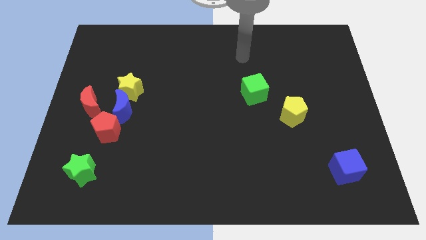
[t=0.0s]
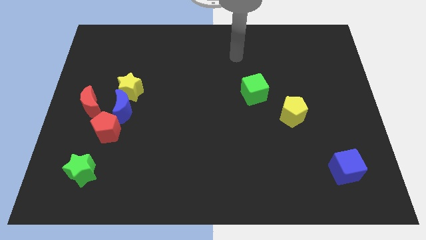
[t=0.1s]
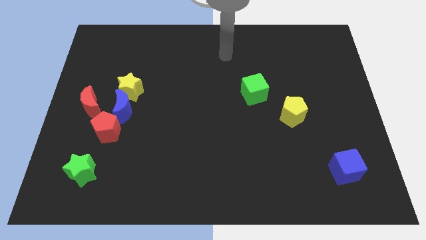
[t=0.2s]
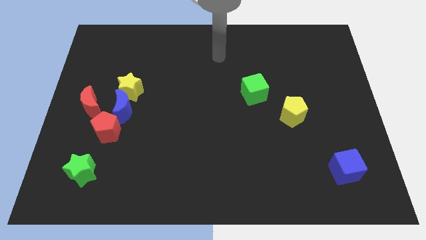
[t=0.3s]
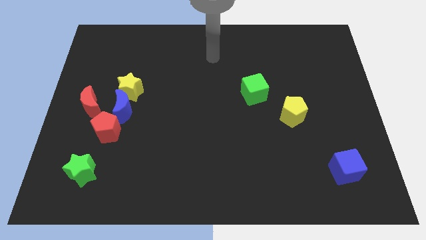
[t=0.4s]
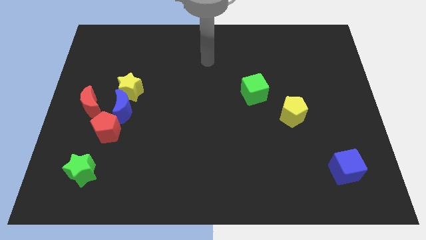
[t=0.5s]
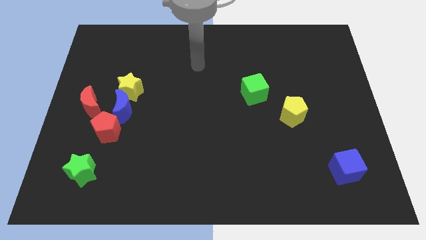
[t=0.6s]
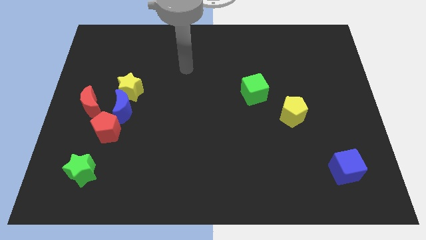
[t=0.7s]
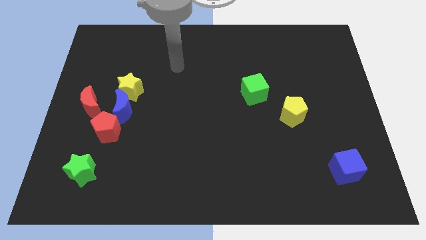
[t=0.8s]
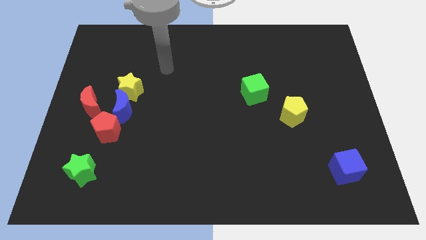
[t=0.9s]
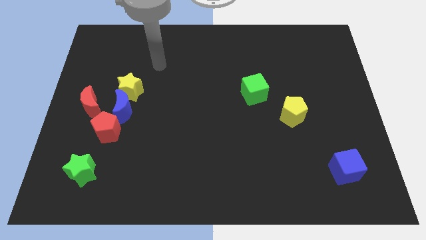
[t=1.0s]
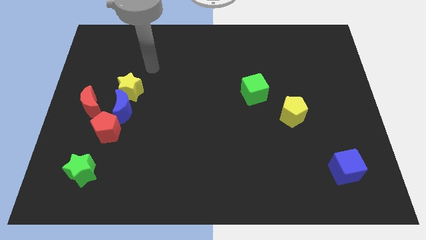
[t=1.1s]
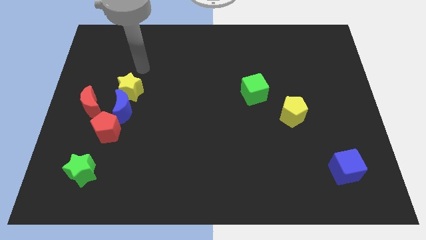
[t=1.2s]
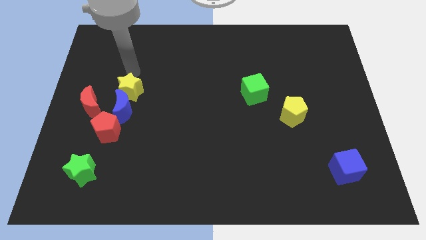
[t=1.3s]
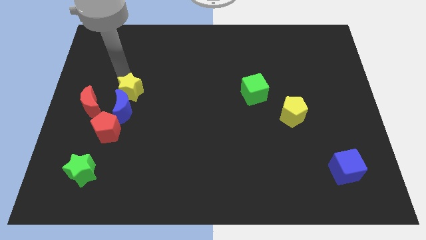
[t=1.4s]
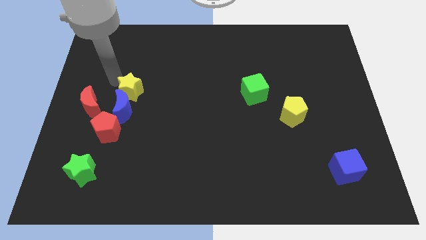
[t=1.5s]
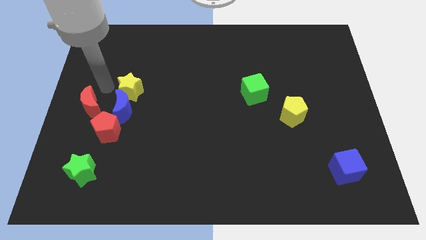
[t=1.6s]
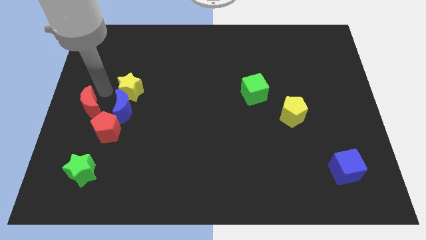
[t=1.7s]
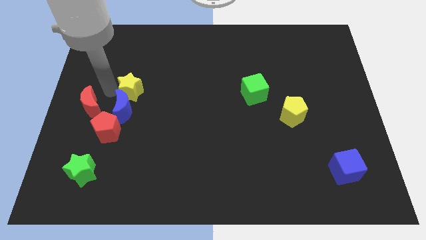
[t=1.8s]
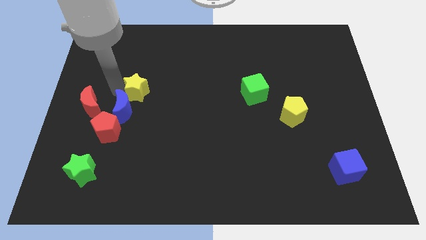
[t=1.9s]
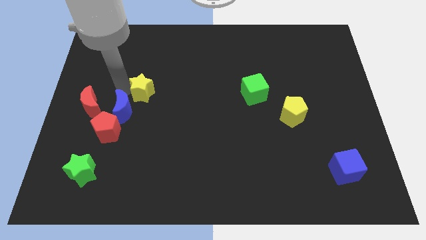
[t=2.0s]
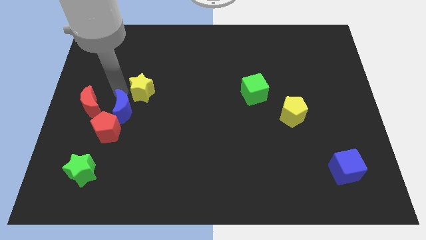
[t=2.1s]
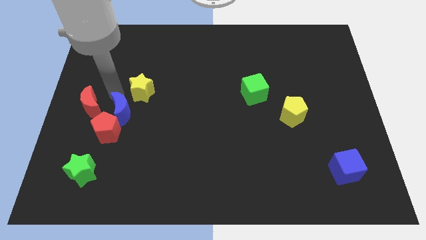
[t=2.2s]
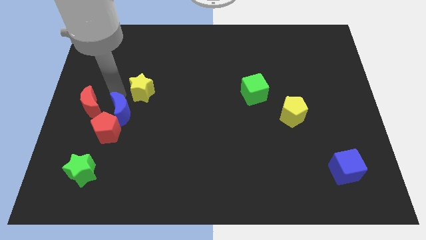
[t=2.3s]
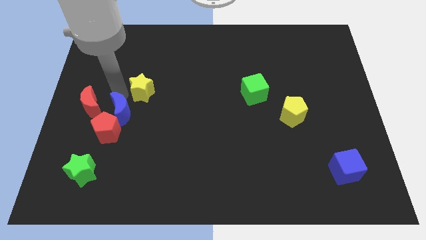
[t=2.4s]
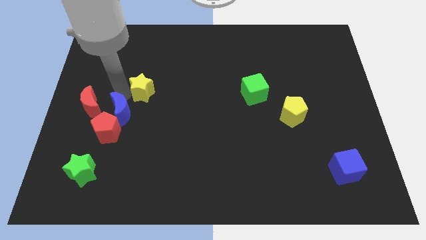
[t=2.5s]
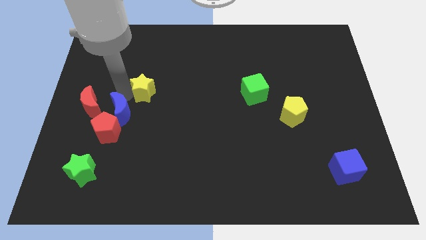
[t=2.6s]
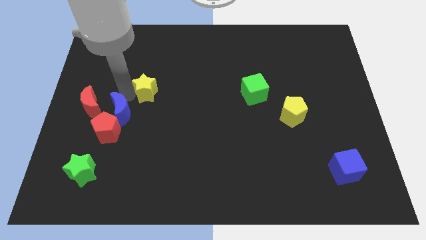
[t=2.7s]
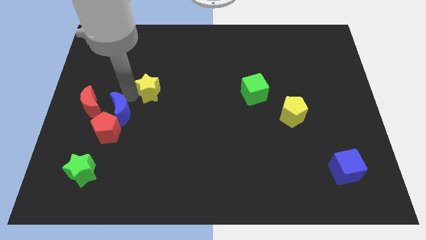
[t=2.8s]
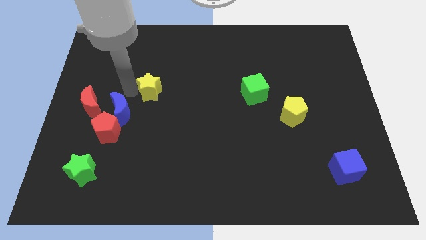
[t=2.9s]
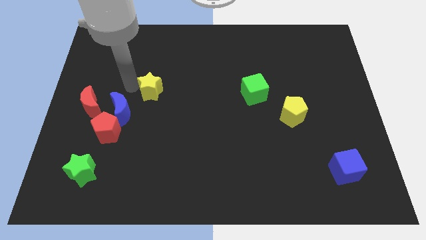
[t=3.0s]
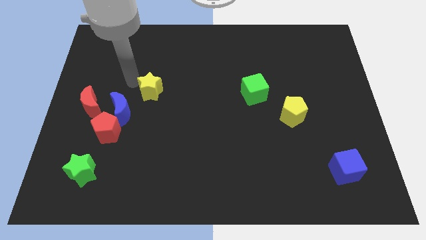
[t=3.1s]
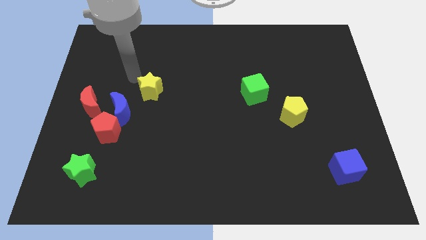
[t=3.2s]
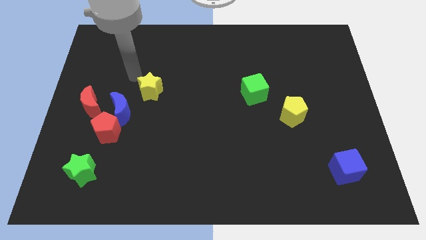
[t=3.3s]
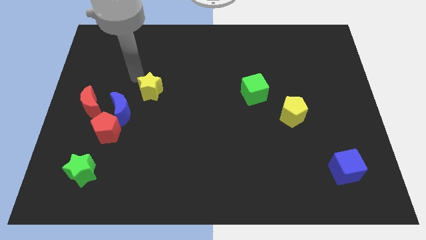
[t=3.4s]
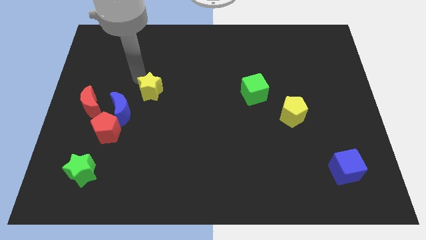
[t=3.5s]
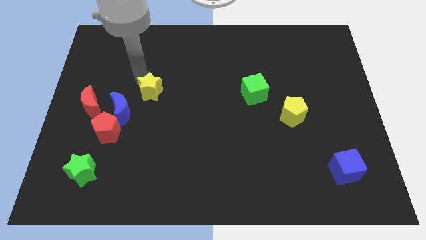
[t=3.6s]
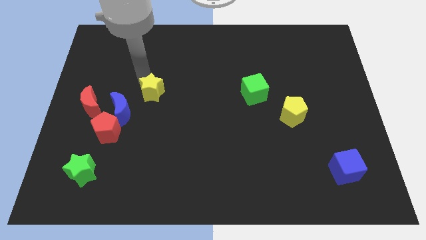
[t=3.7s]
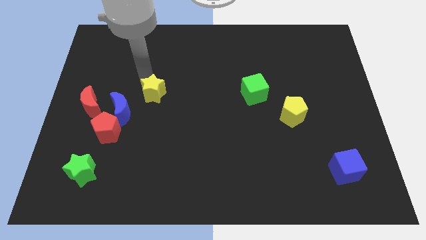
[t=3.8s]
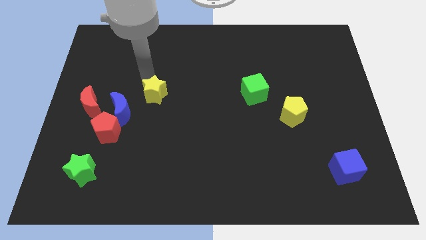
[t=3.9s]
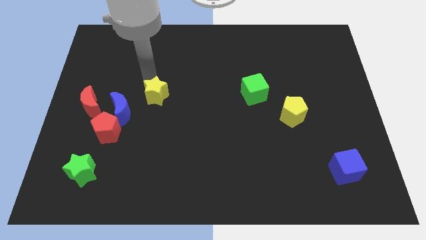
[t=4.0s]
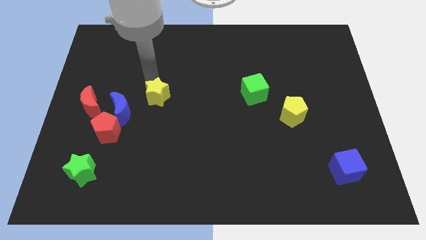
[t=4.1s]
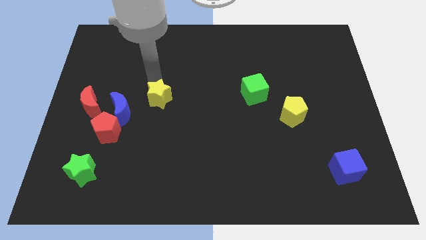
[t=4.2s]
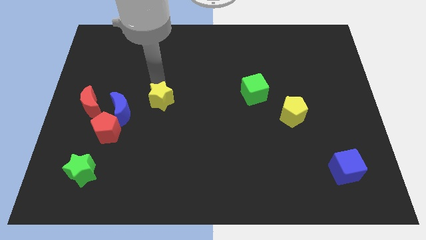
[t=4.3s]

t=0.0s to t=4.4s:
slide the yellow star diagonally downwards and right a little bit

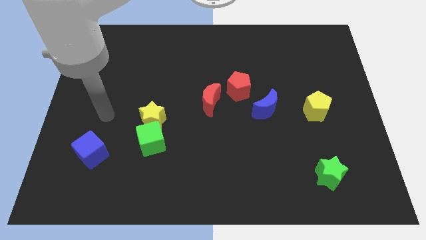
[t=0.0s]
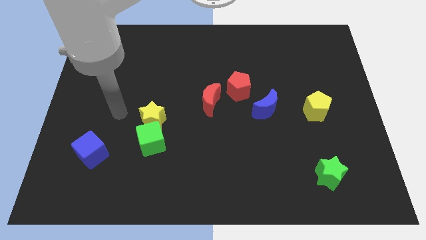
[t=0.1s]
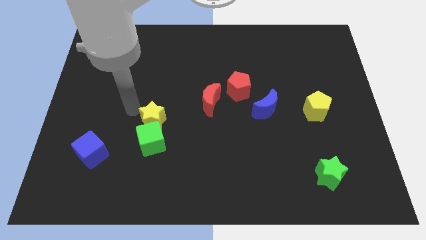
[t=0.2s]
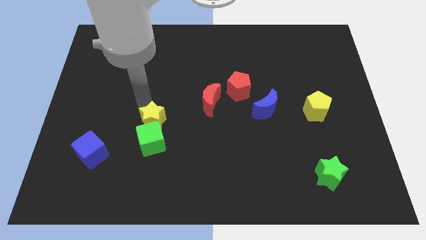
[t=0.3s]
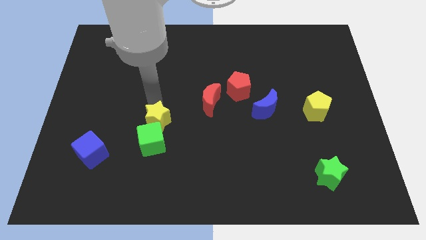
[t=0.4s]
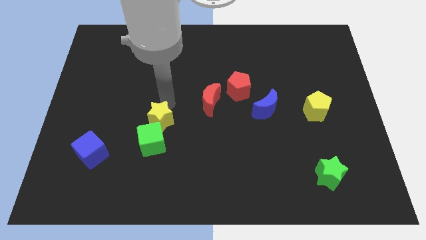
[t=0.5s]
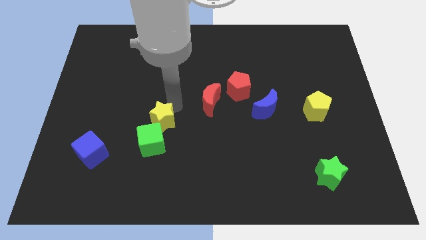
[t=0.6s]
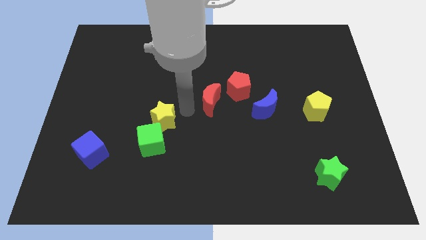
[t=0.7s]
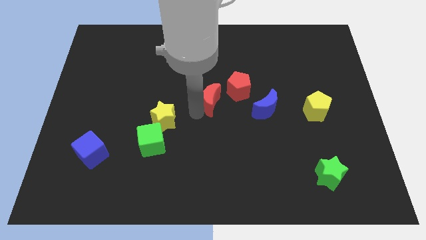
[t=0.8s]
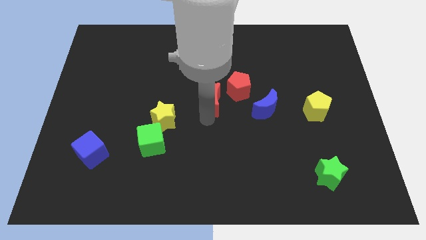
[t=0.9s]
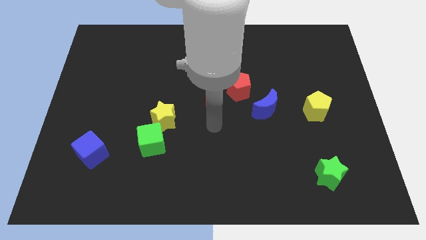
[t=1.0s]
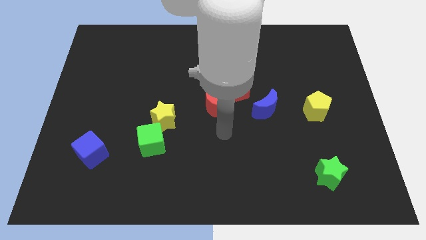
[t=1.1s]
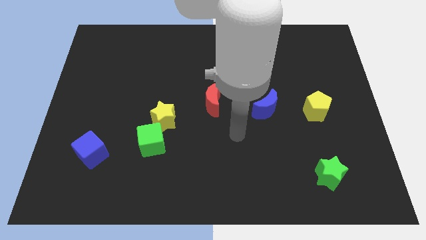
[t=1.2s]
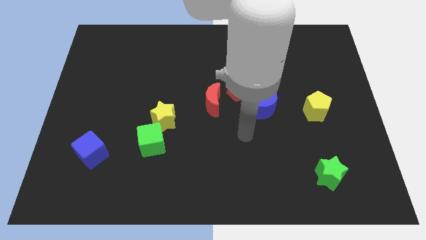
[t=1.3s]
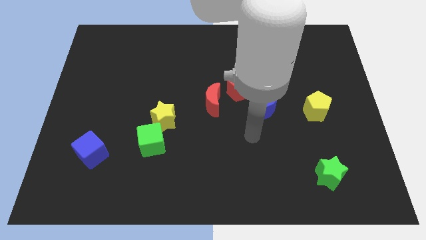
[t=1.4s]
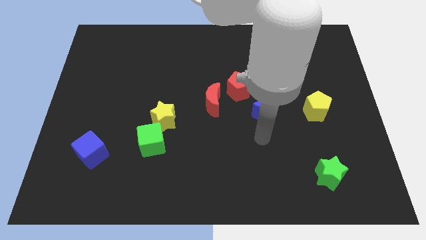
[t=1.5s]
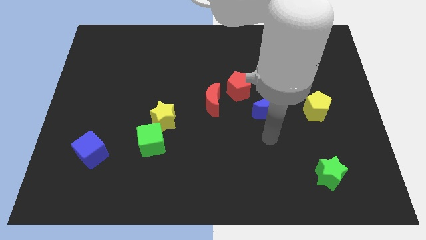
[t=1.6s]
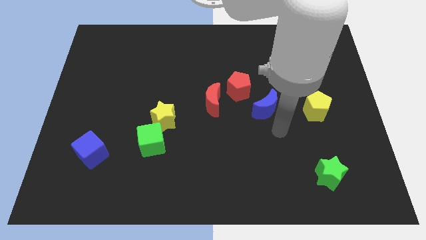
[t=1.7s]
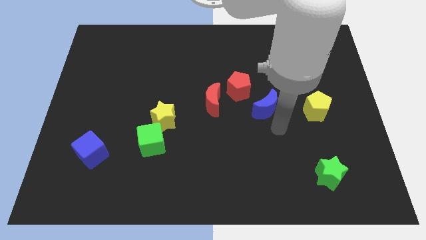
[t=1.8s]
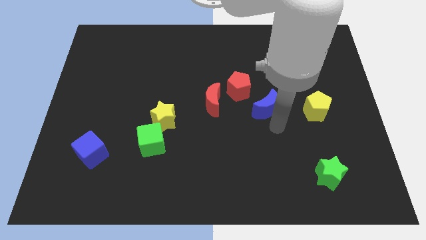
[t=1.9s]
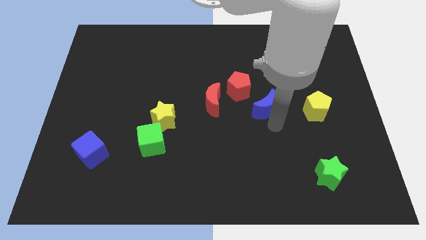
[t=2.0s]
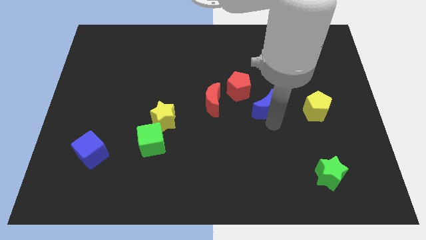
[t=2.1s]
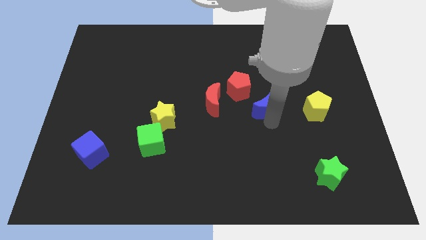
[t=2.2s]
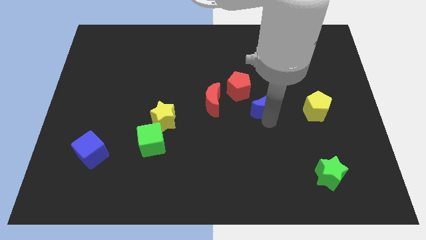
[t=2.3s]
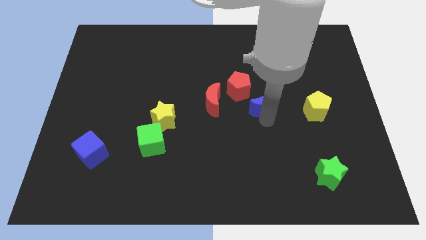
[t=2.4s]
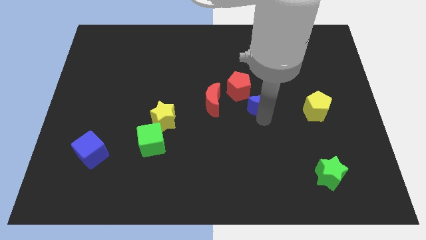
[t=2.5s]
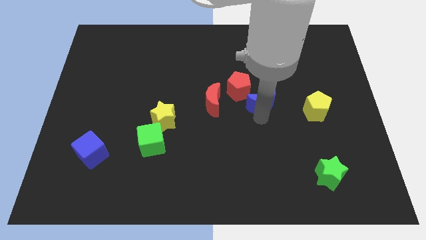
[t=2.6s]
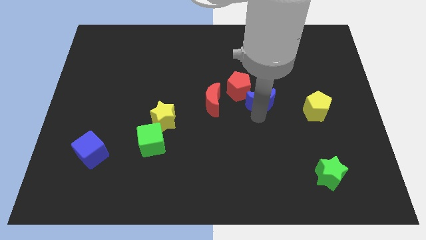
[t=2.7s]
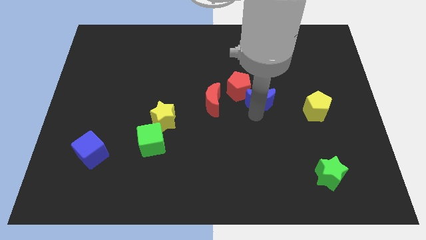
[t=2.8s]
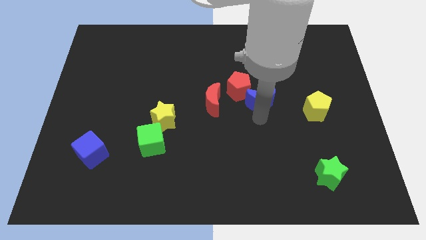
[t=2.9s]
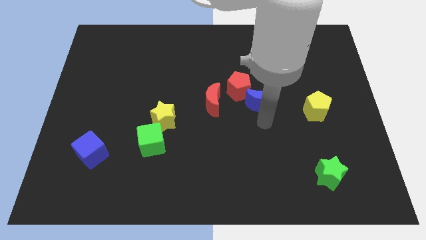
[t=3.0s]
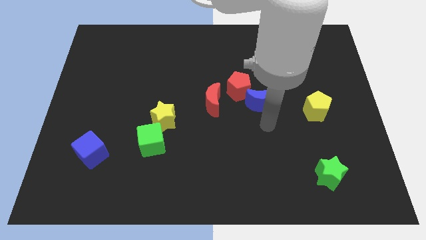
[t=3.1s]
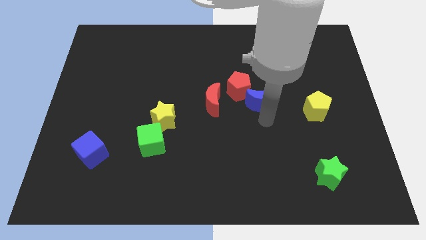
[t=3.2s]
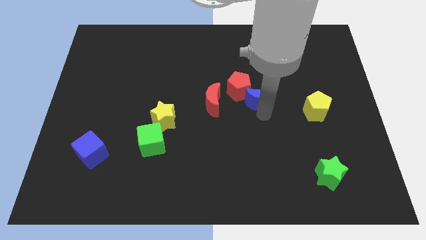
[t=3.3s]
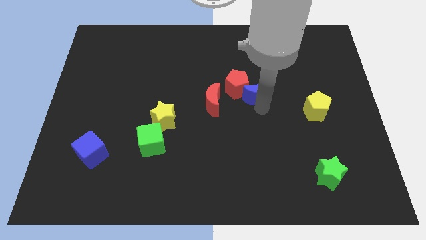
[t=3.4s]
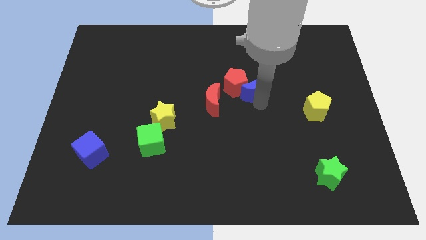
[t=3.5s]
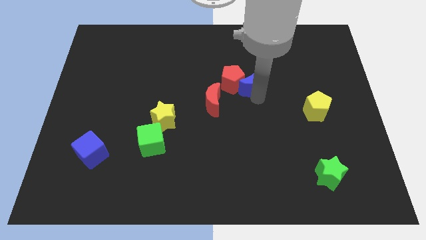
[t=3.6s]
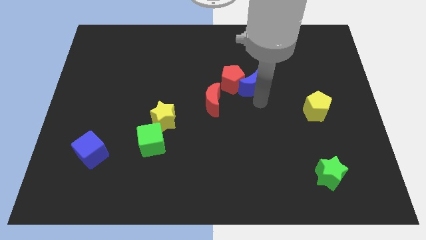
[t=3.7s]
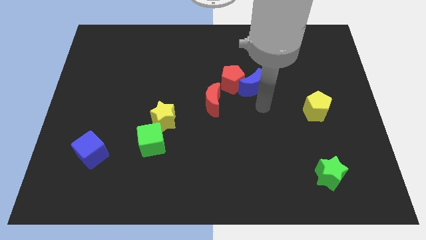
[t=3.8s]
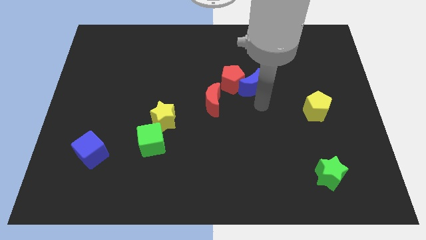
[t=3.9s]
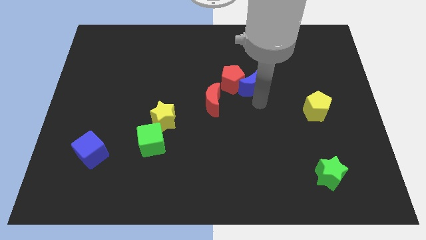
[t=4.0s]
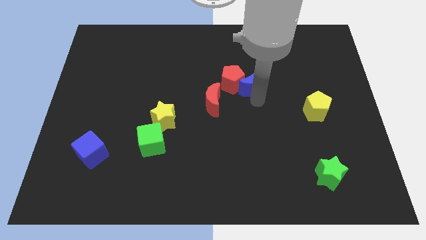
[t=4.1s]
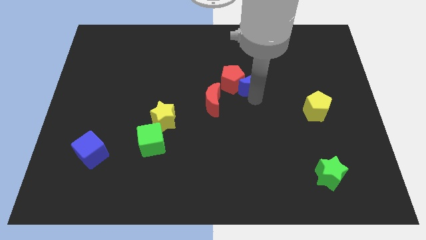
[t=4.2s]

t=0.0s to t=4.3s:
slightly slide the blue moon upwards and then left
